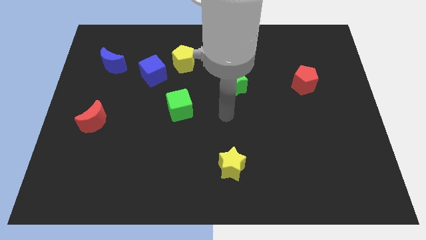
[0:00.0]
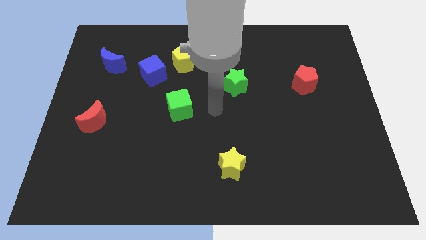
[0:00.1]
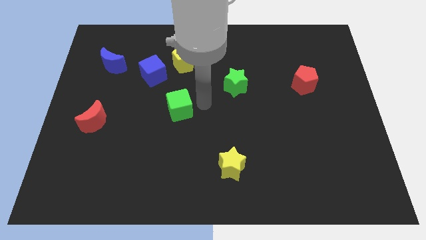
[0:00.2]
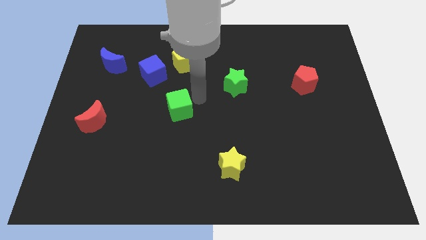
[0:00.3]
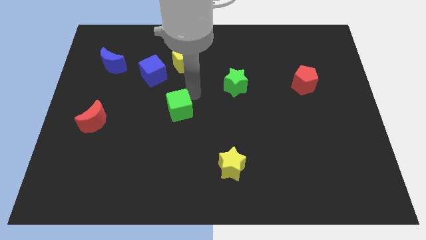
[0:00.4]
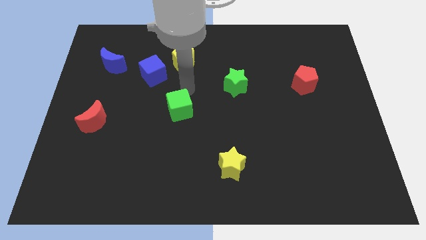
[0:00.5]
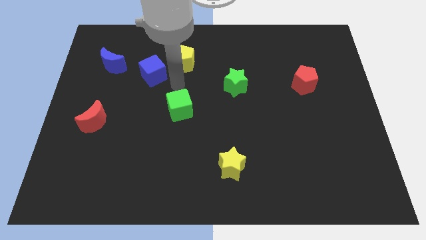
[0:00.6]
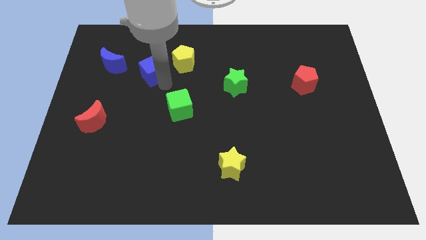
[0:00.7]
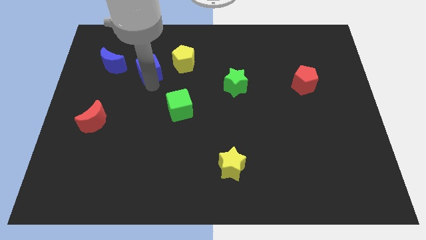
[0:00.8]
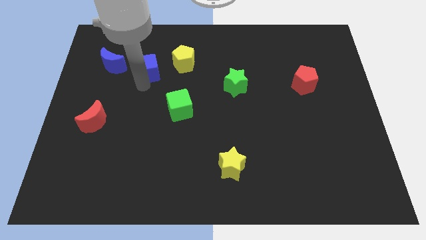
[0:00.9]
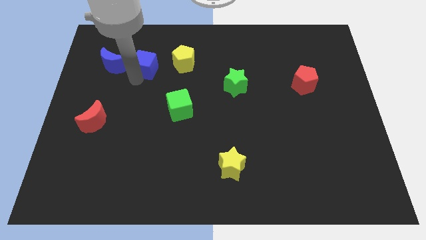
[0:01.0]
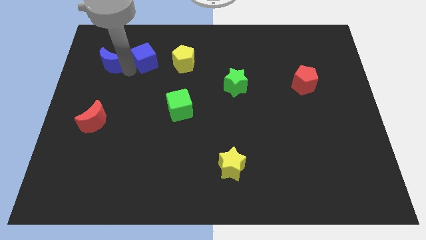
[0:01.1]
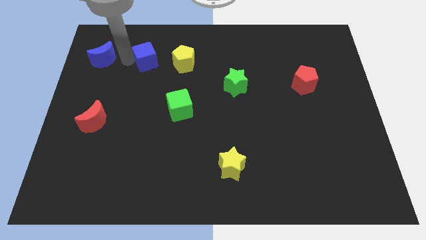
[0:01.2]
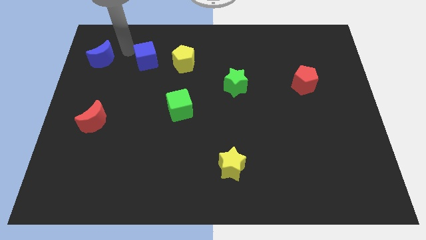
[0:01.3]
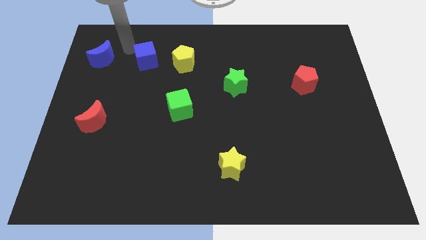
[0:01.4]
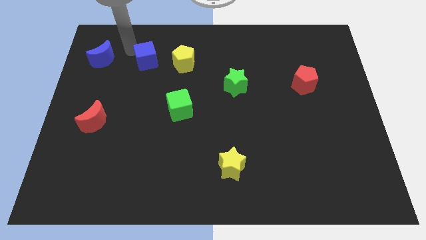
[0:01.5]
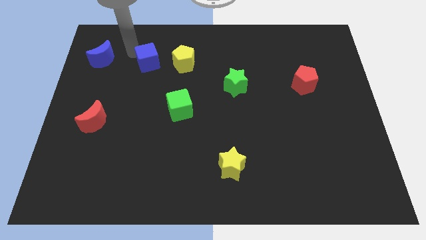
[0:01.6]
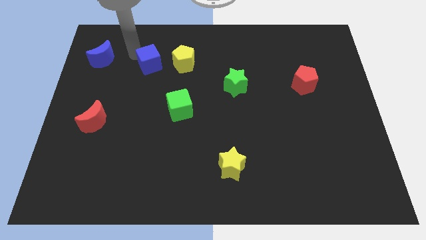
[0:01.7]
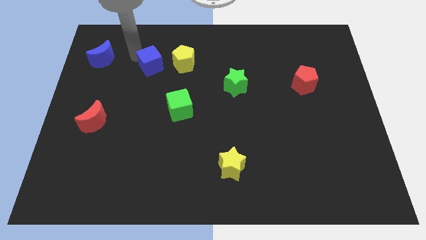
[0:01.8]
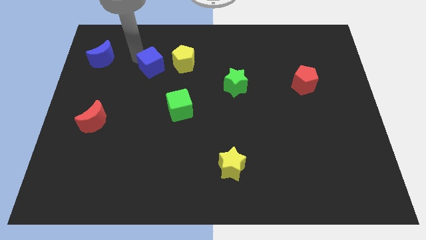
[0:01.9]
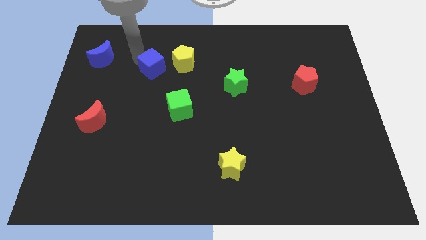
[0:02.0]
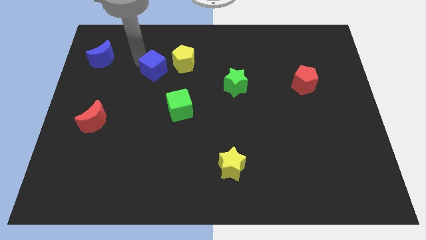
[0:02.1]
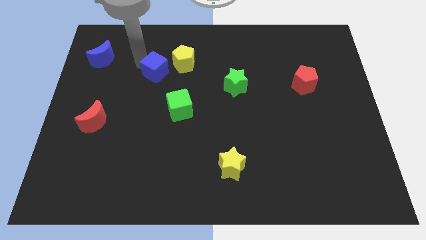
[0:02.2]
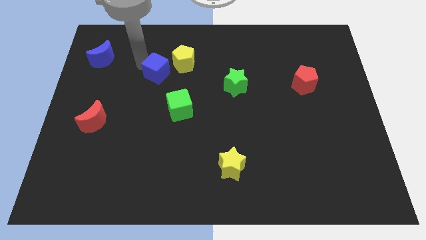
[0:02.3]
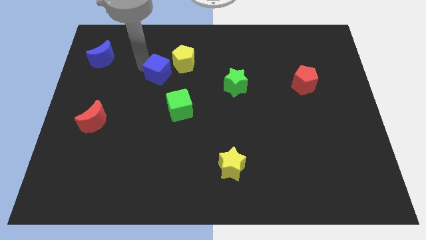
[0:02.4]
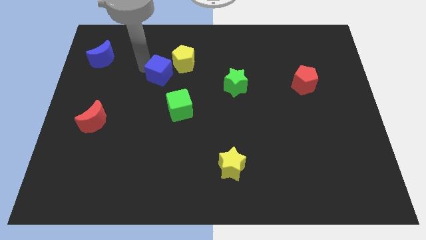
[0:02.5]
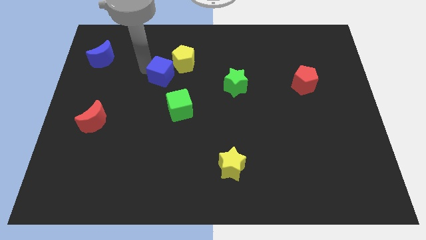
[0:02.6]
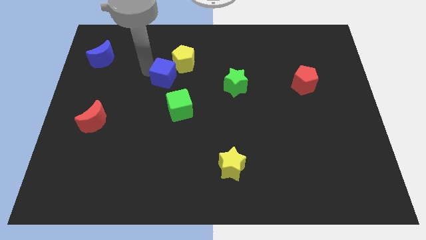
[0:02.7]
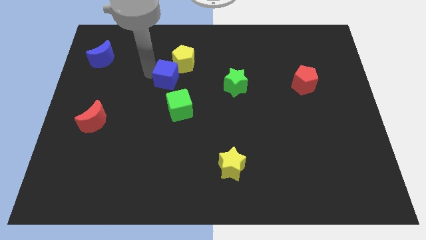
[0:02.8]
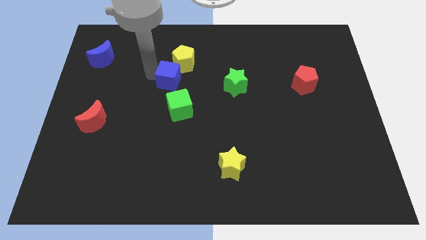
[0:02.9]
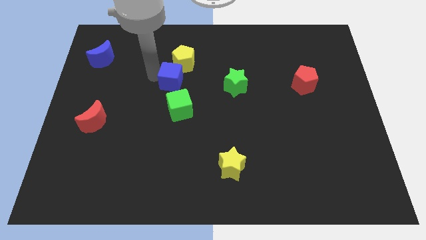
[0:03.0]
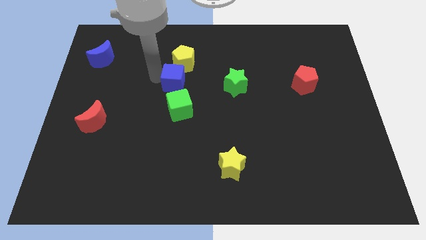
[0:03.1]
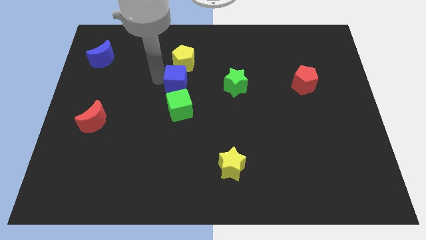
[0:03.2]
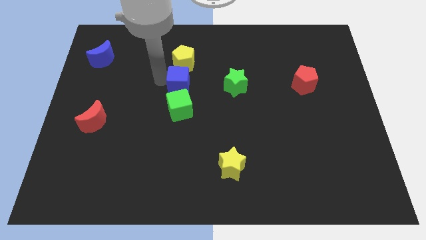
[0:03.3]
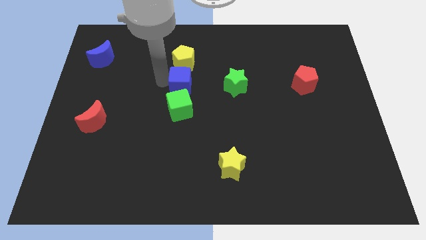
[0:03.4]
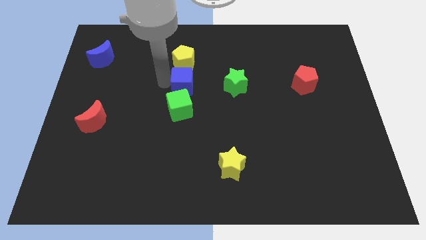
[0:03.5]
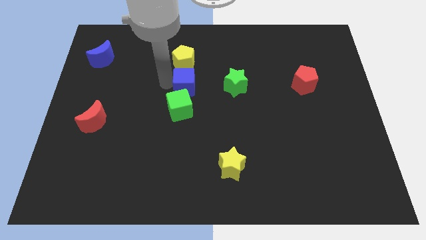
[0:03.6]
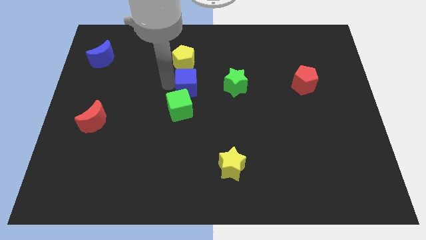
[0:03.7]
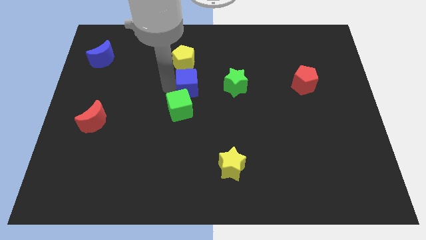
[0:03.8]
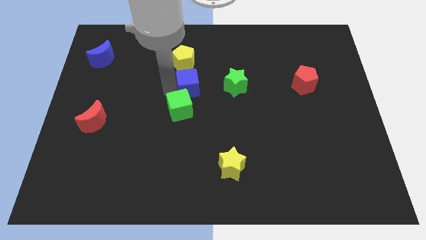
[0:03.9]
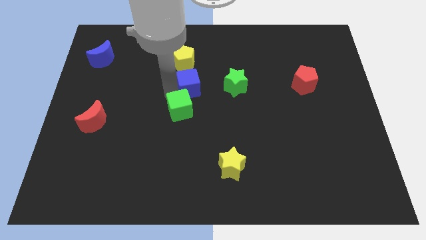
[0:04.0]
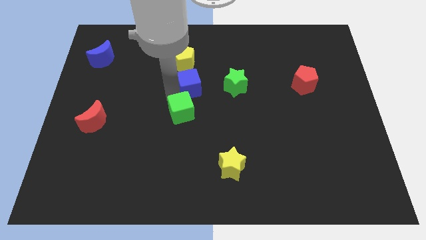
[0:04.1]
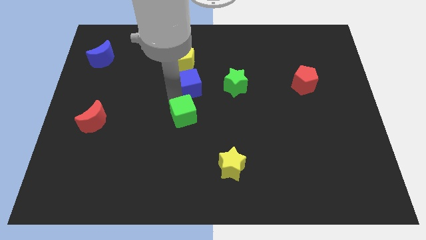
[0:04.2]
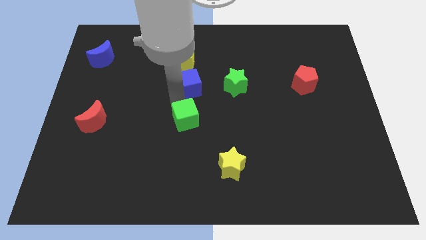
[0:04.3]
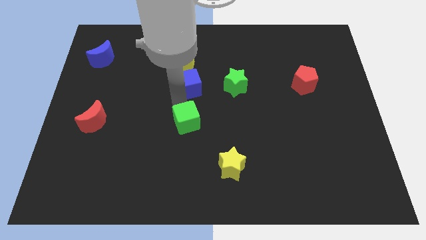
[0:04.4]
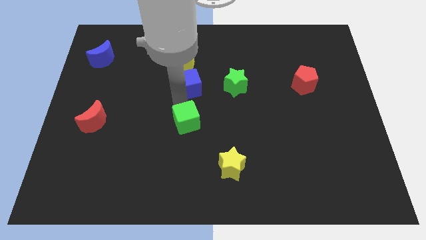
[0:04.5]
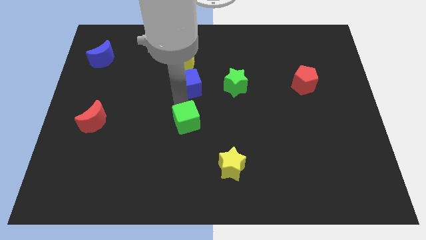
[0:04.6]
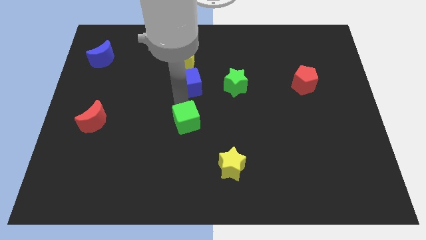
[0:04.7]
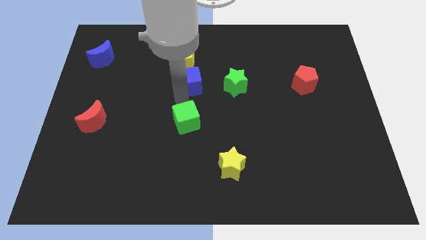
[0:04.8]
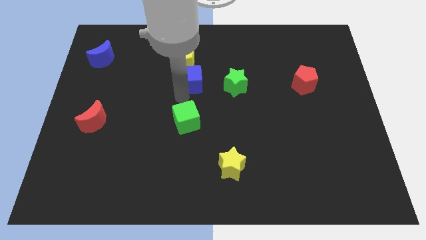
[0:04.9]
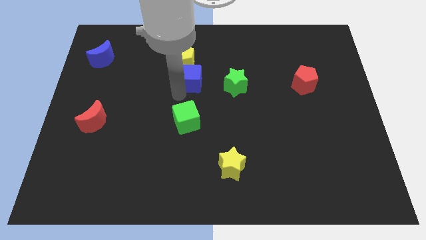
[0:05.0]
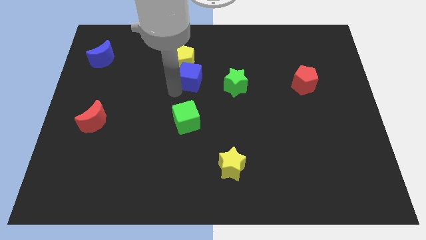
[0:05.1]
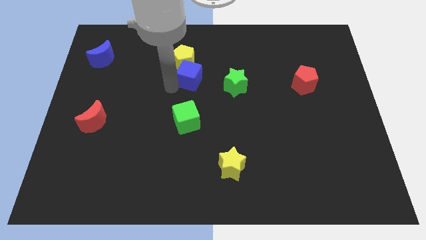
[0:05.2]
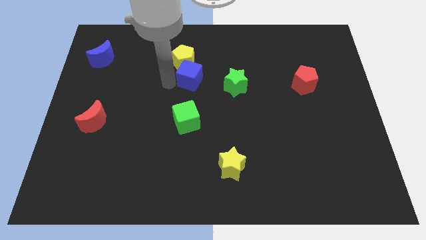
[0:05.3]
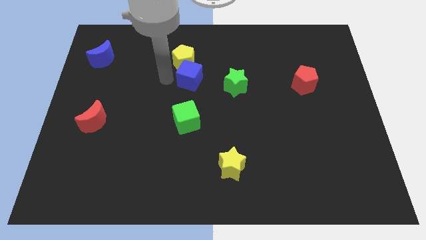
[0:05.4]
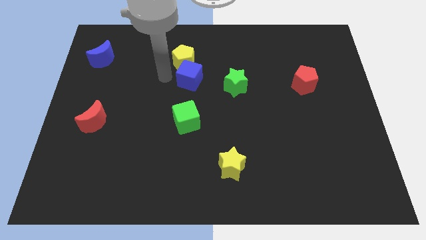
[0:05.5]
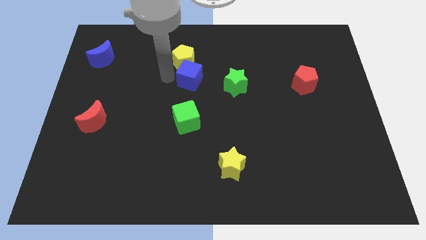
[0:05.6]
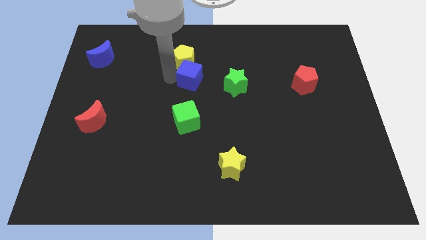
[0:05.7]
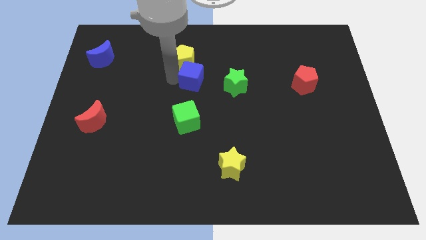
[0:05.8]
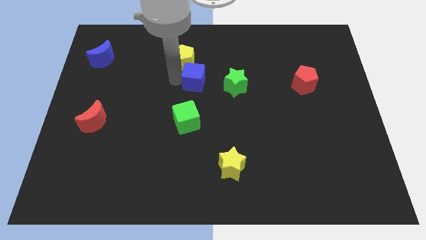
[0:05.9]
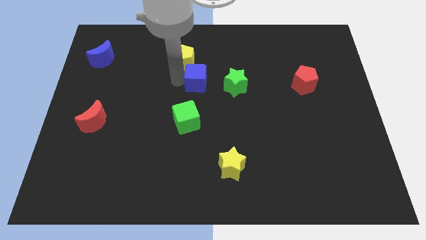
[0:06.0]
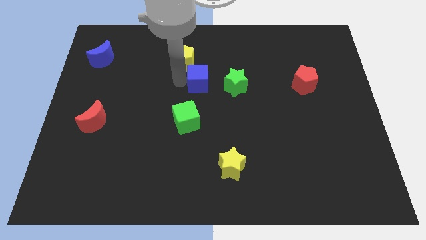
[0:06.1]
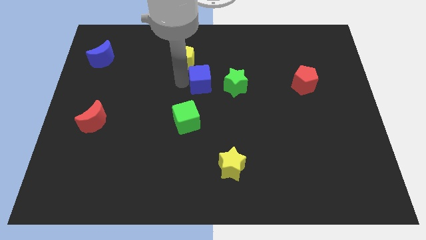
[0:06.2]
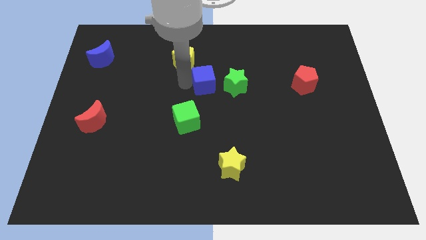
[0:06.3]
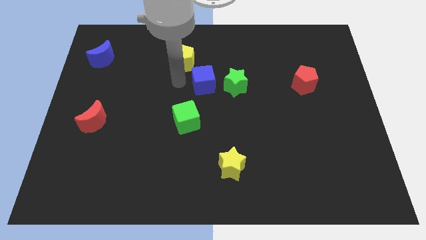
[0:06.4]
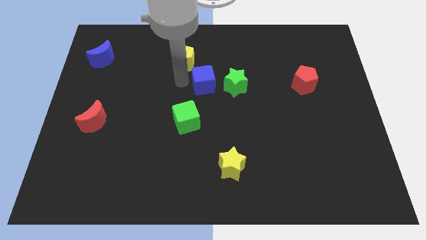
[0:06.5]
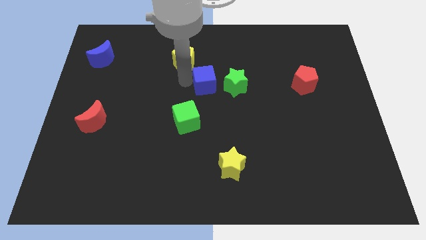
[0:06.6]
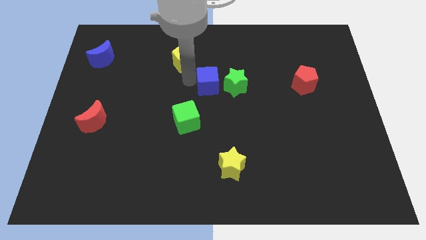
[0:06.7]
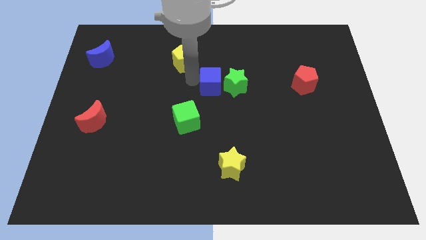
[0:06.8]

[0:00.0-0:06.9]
slide the blue cube towards the green star
